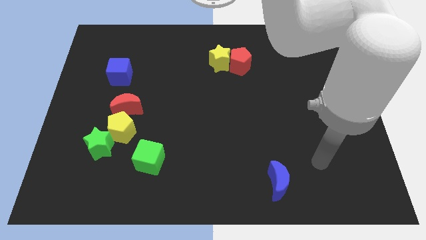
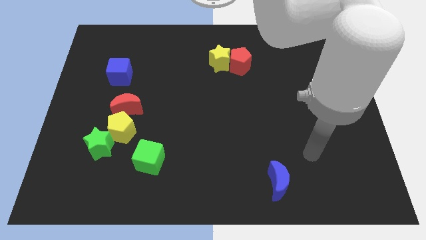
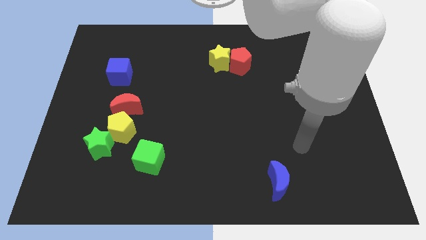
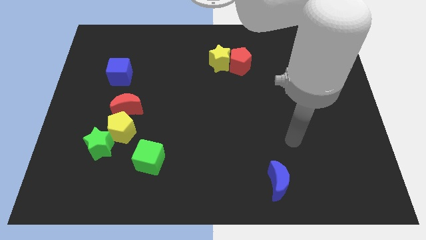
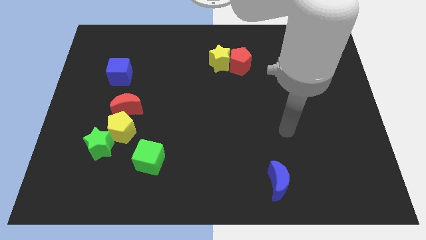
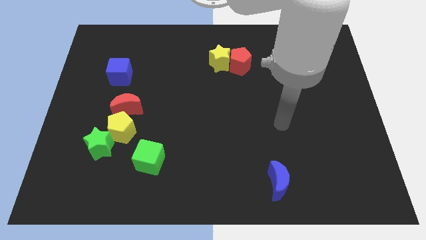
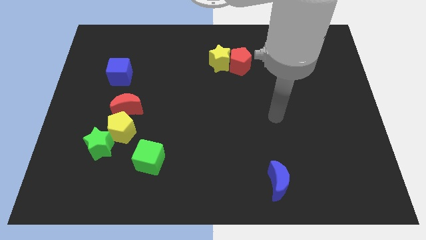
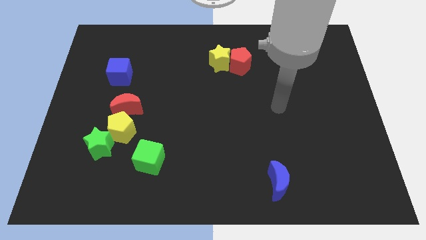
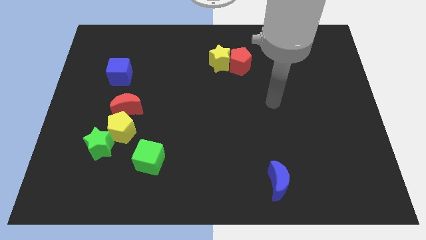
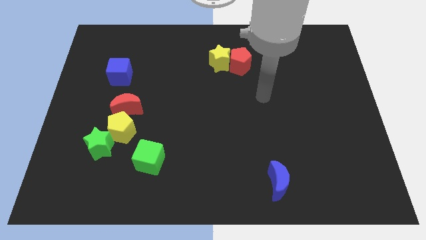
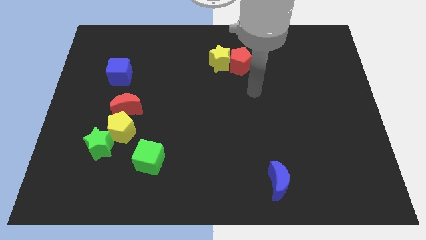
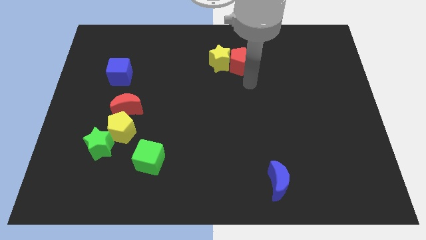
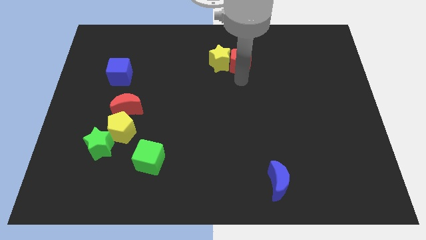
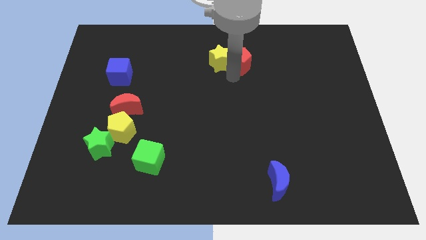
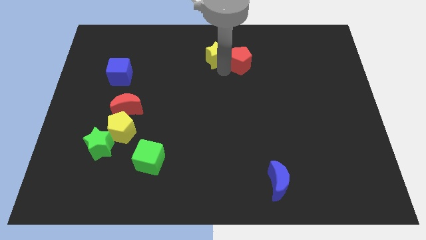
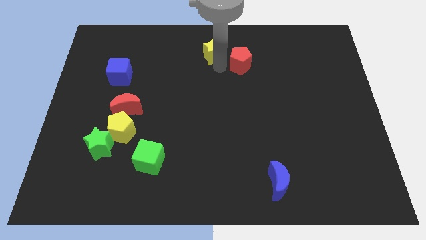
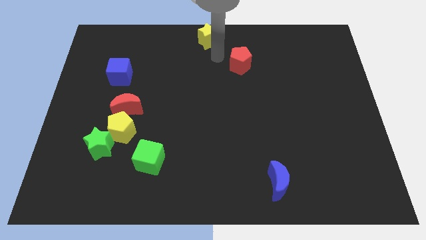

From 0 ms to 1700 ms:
move the red pentagon away from the yellow star

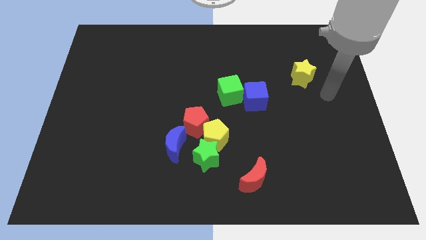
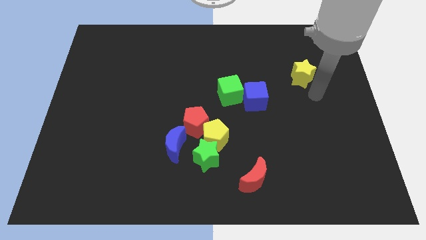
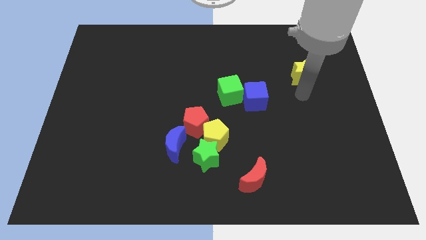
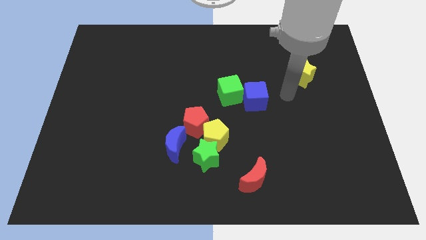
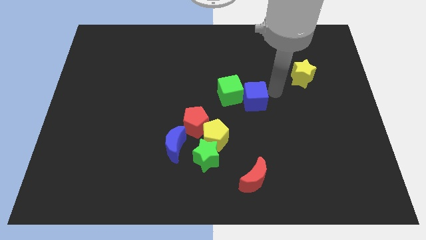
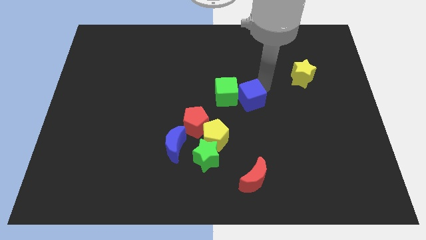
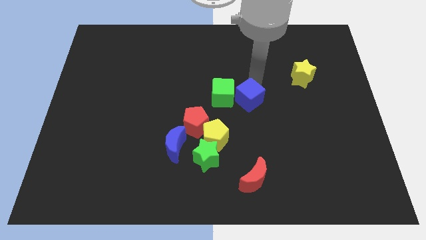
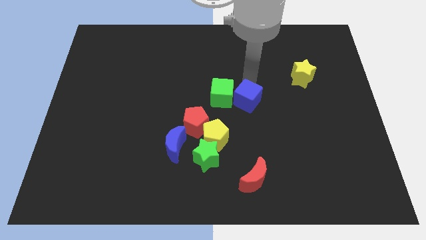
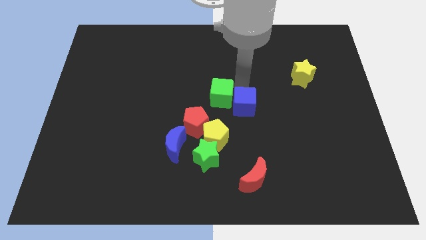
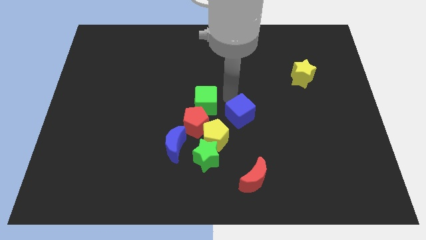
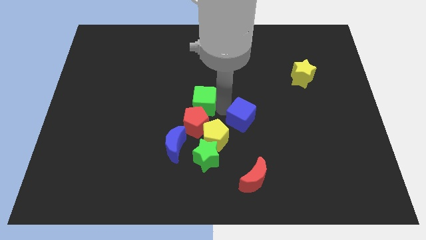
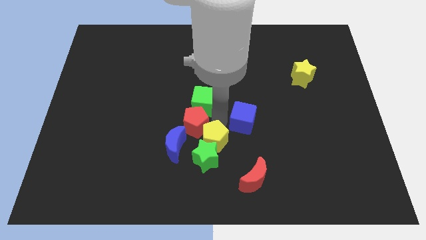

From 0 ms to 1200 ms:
pull the blue cube apart from the green cube

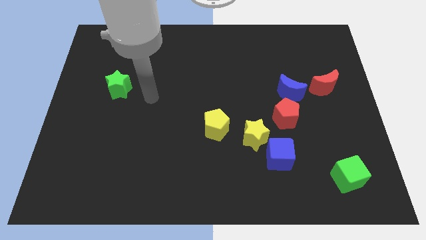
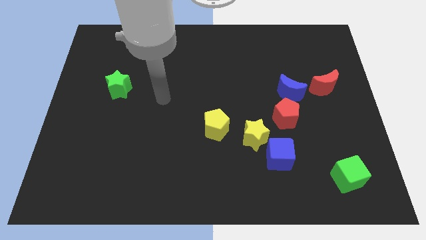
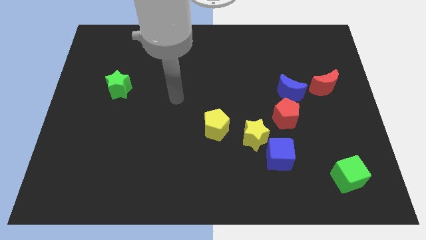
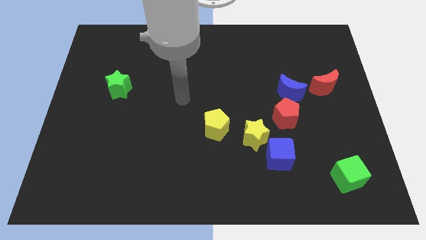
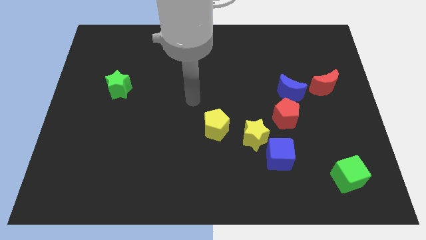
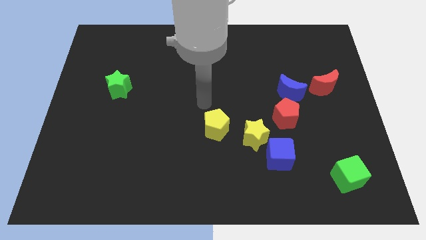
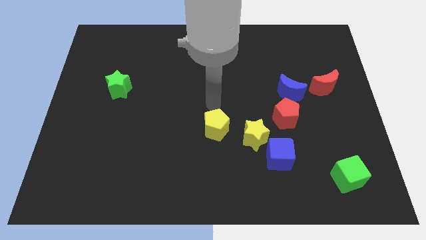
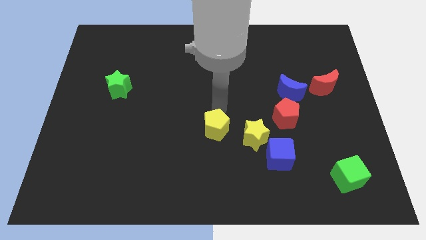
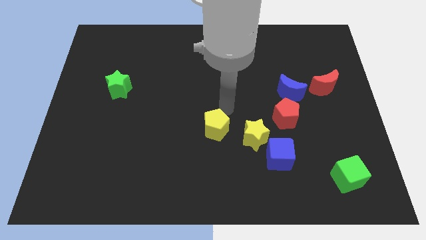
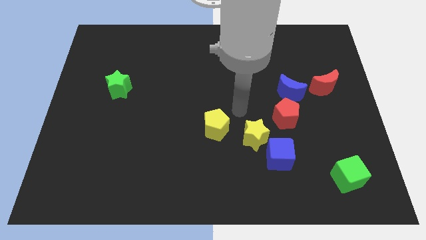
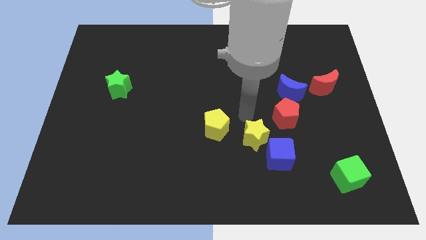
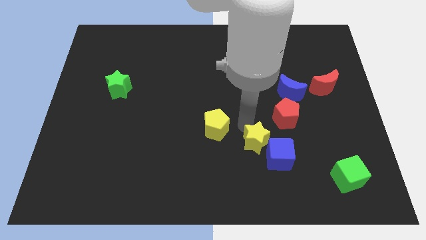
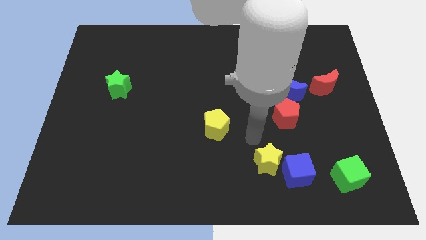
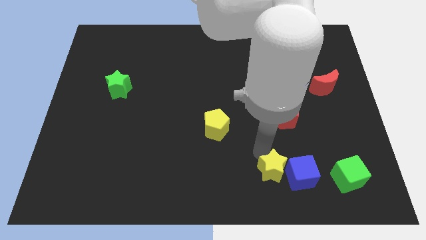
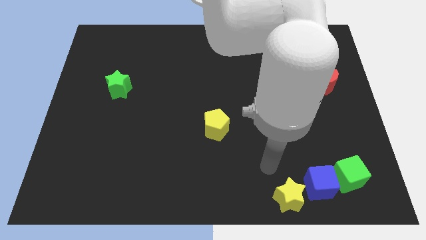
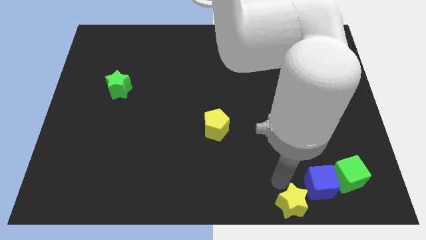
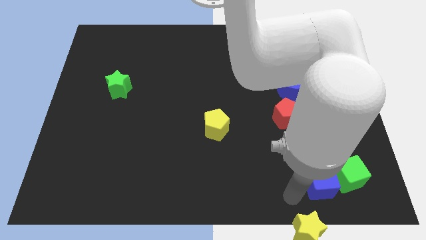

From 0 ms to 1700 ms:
move the blue cube away from the yellow star

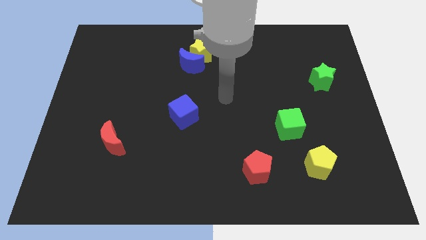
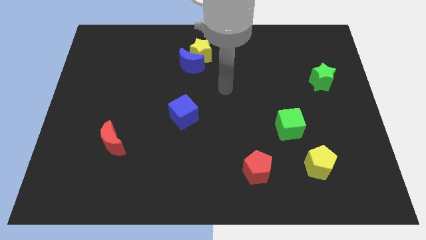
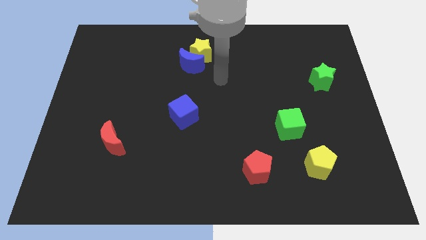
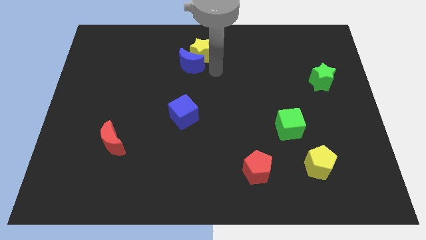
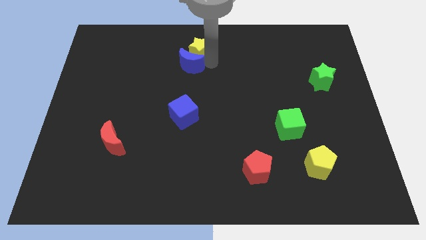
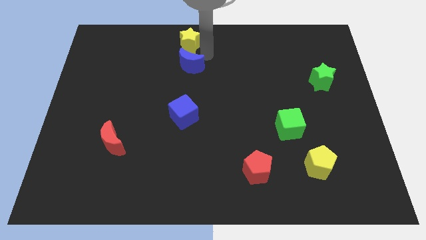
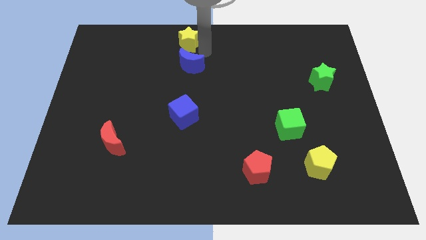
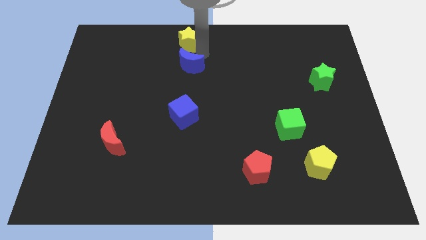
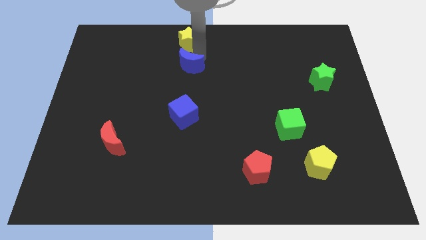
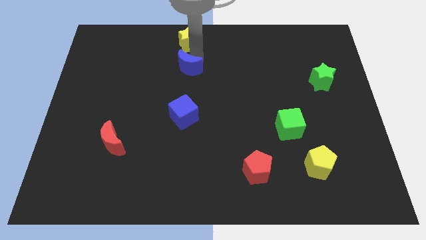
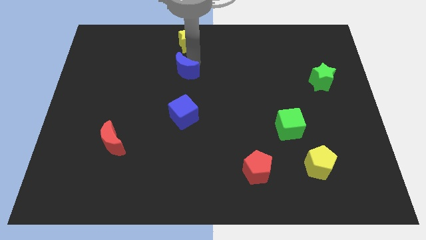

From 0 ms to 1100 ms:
pull the blue moon apart from the yellow star

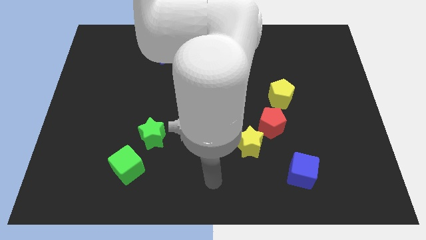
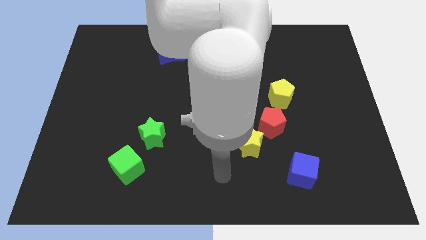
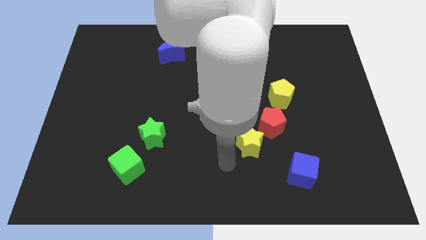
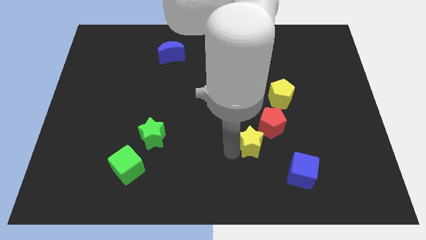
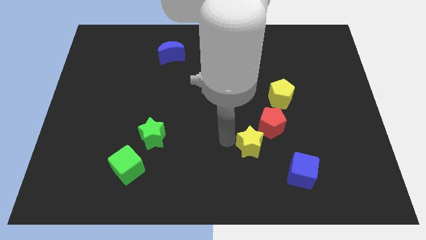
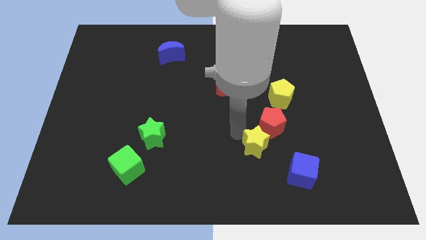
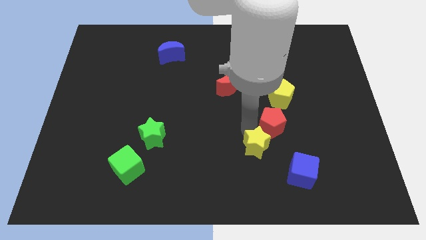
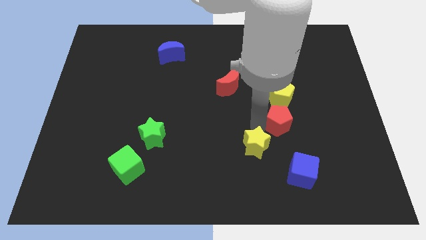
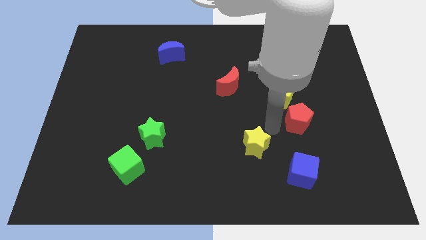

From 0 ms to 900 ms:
pull the yellow star apart from the red pentagon

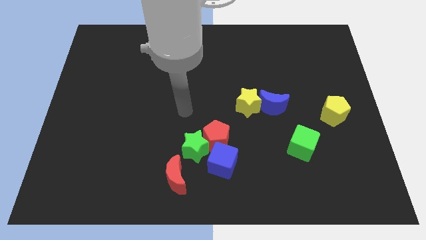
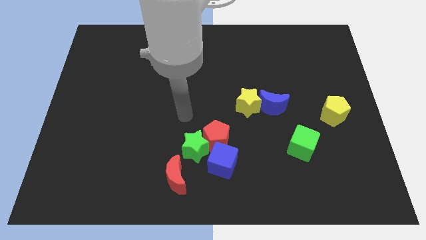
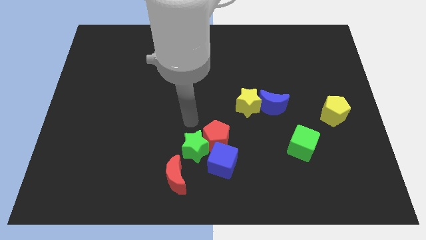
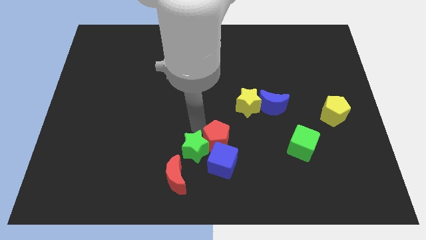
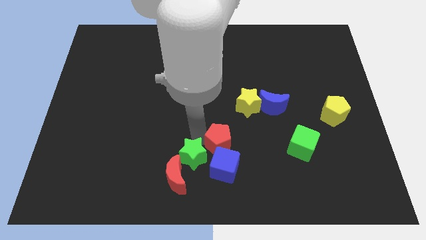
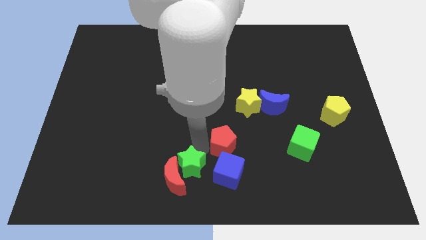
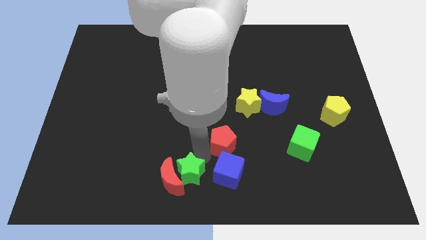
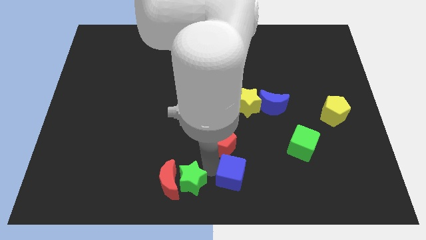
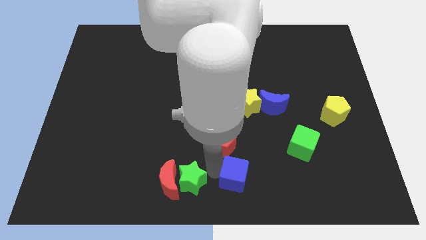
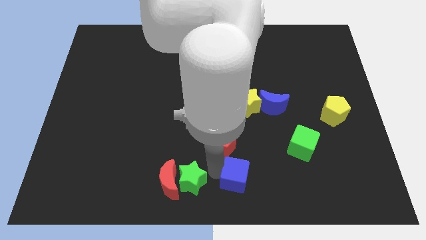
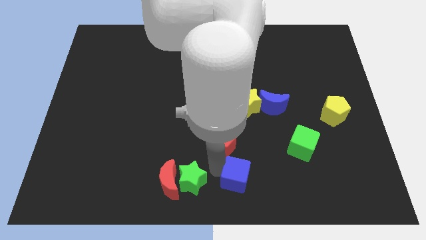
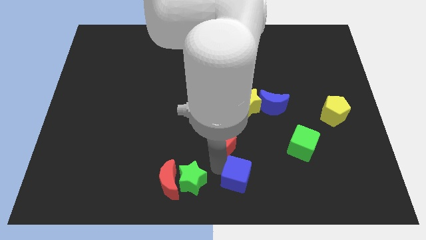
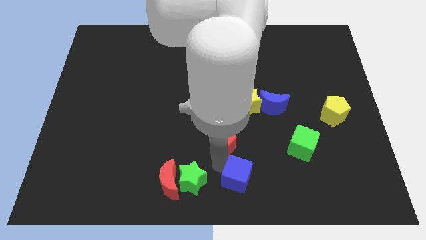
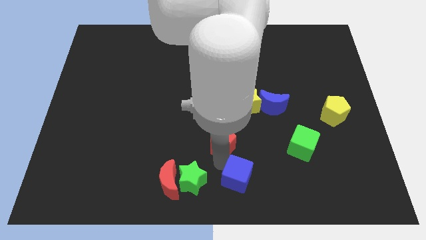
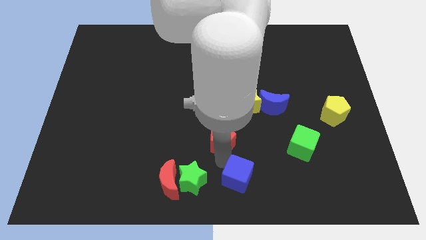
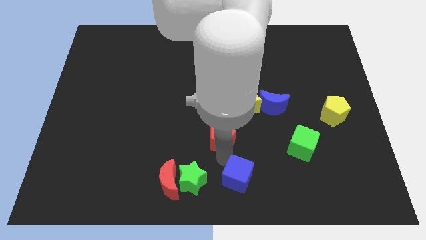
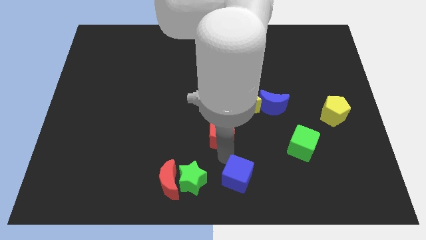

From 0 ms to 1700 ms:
pull the red pentagon apart from the green star and blue cube

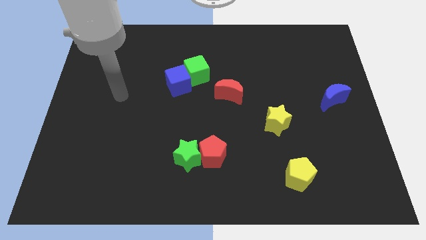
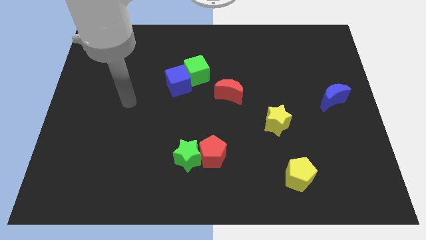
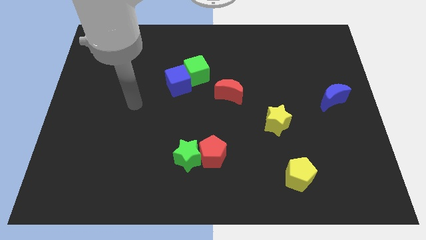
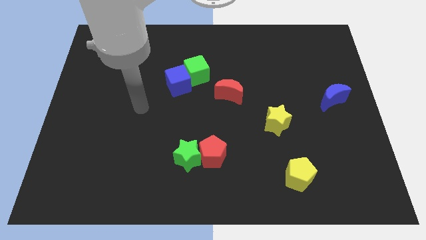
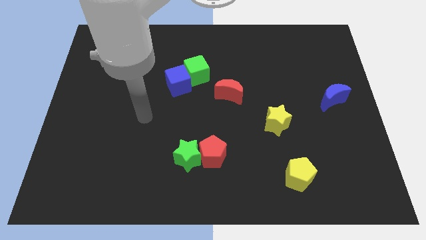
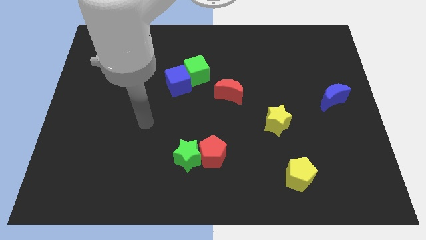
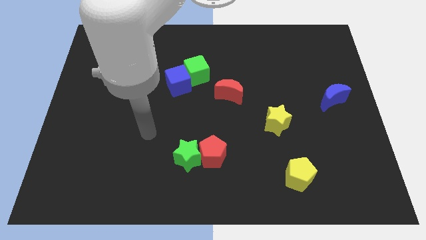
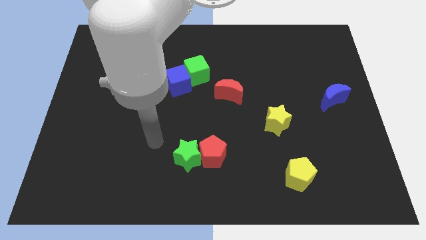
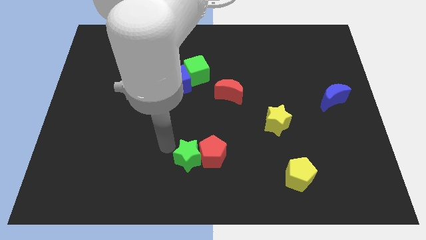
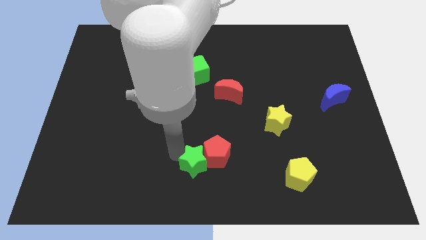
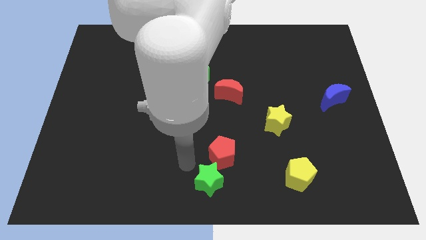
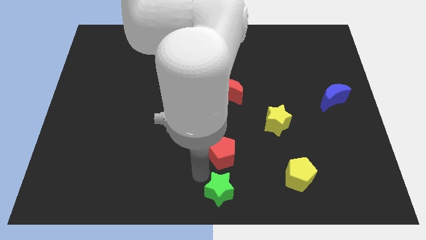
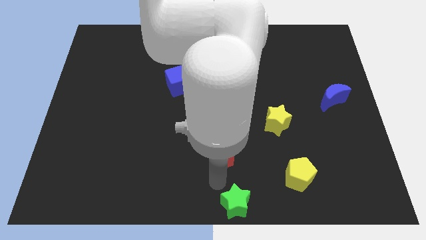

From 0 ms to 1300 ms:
separate the red pentagon from the green star
